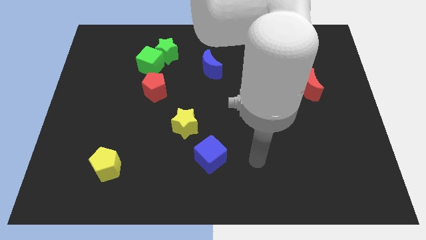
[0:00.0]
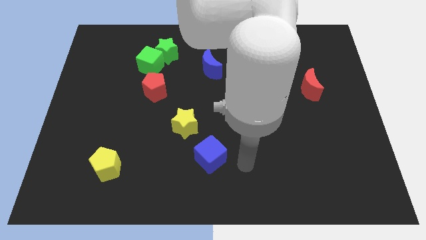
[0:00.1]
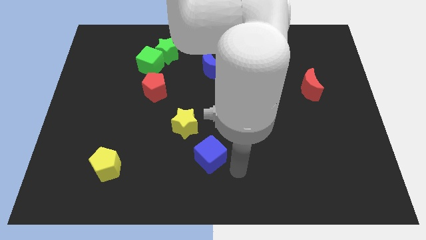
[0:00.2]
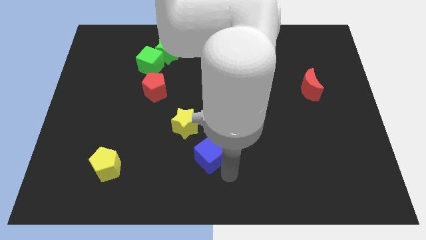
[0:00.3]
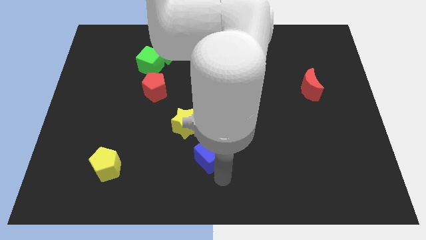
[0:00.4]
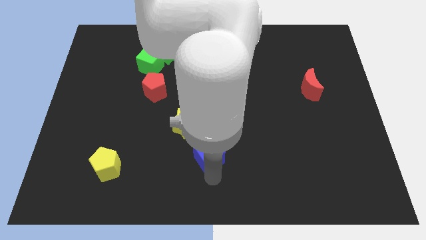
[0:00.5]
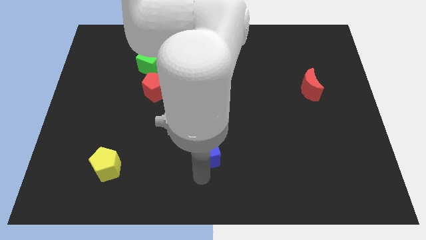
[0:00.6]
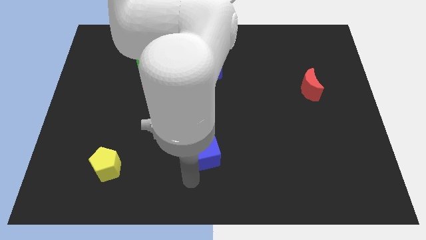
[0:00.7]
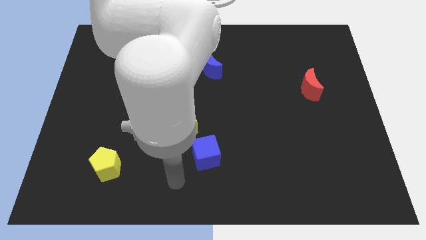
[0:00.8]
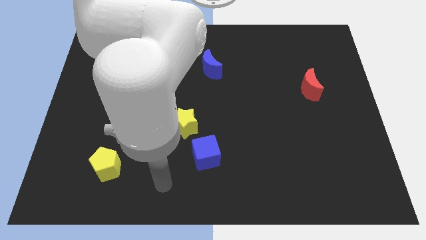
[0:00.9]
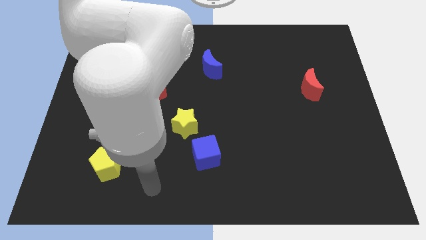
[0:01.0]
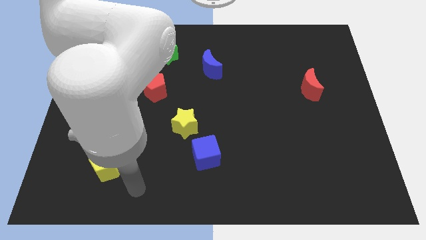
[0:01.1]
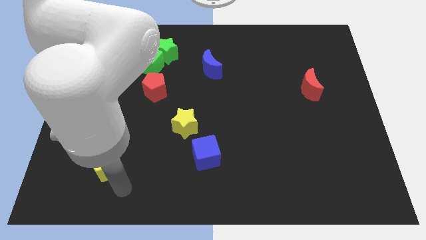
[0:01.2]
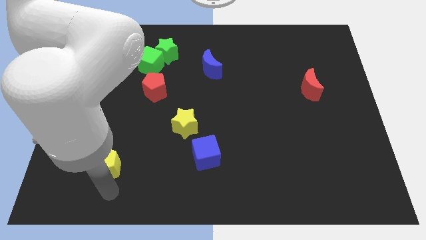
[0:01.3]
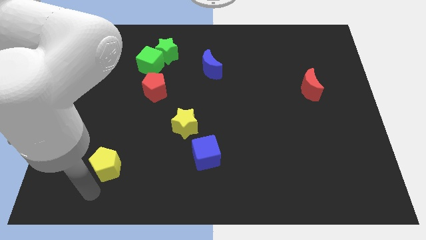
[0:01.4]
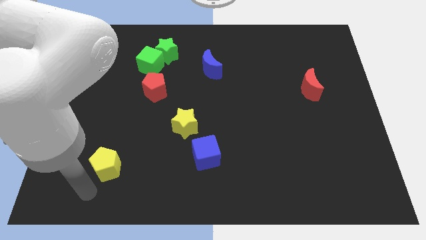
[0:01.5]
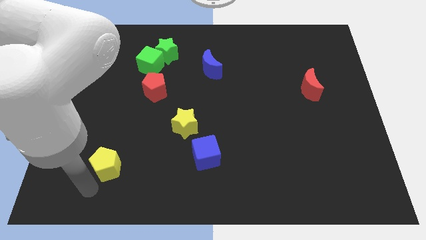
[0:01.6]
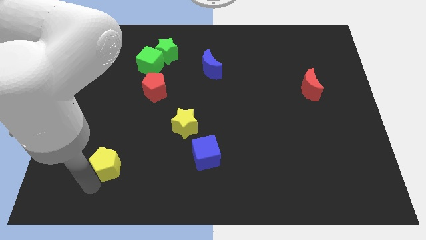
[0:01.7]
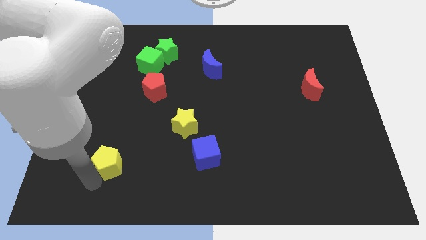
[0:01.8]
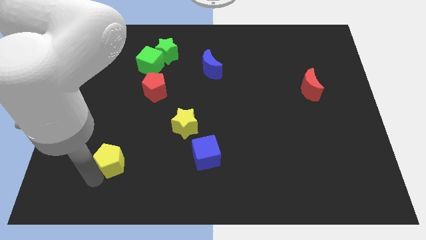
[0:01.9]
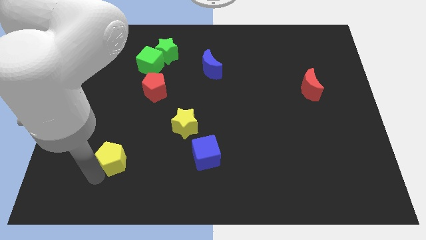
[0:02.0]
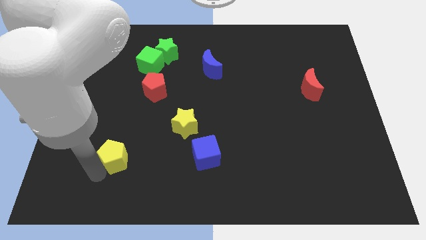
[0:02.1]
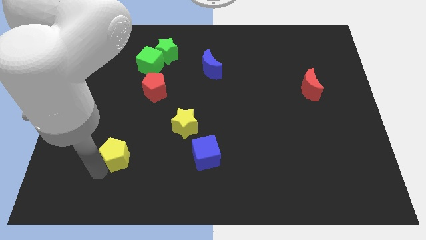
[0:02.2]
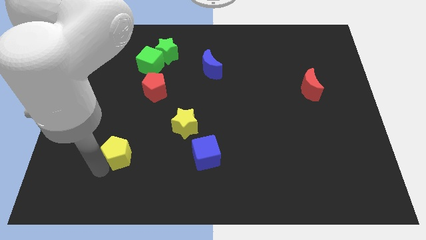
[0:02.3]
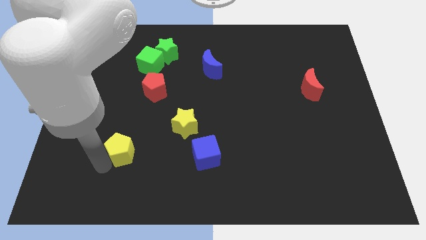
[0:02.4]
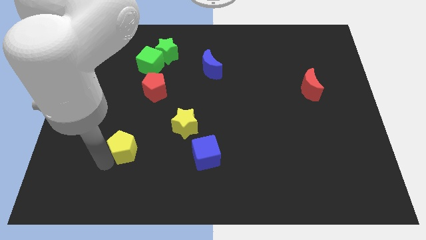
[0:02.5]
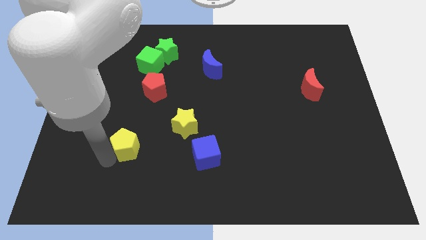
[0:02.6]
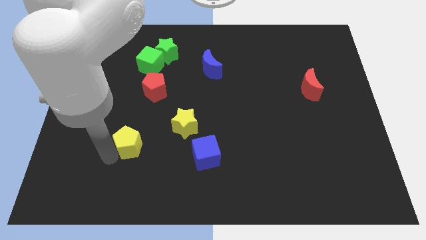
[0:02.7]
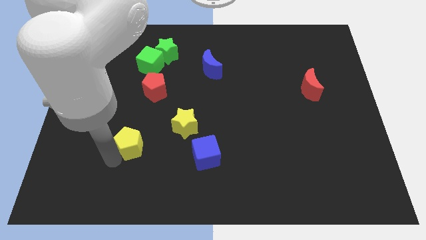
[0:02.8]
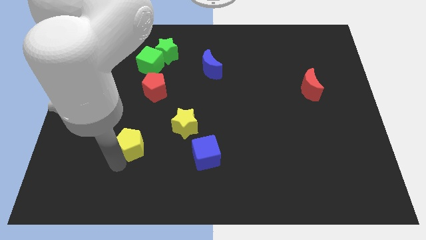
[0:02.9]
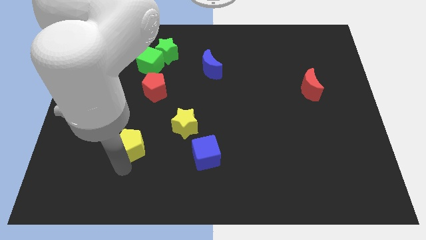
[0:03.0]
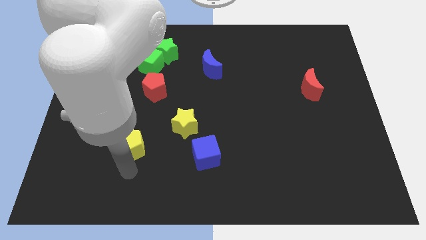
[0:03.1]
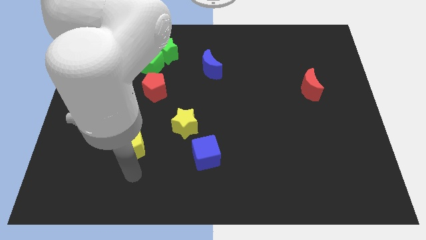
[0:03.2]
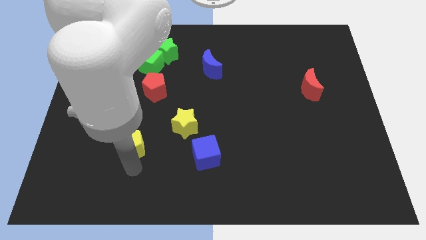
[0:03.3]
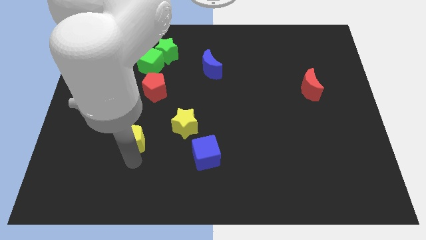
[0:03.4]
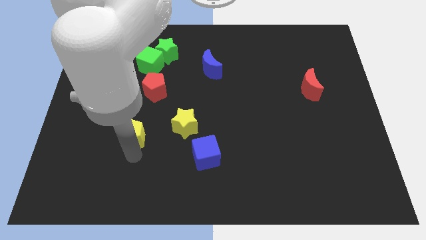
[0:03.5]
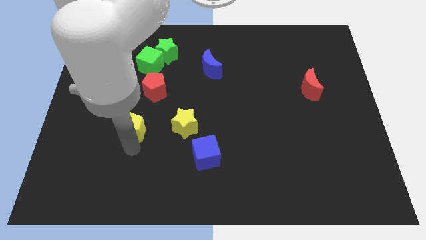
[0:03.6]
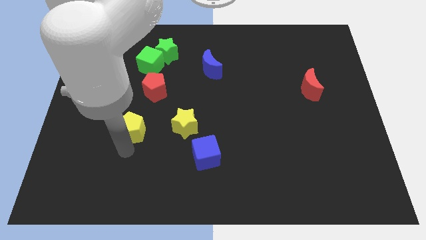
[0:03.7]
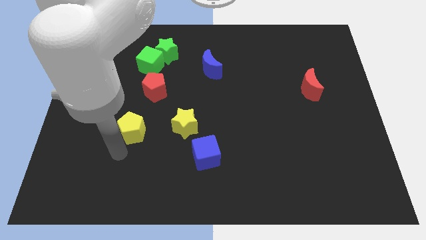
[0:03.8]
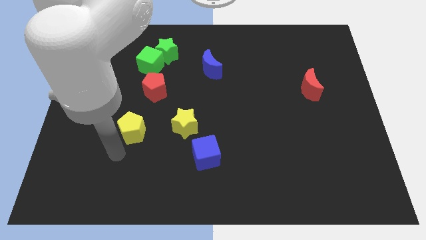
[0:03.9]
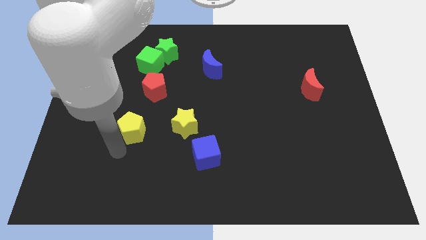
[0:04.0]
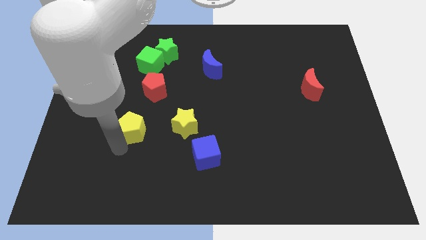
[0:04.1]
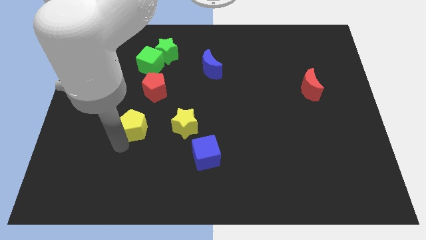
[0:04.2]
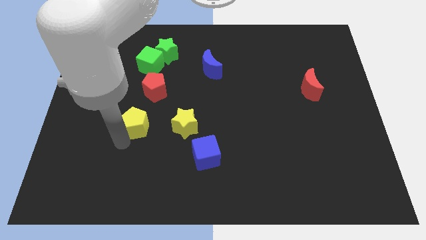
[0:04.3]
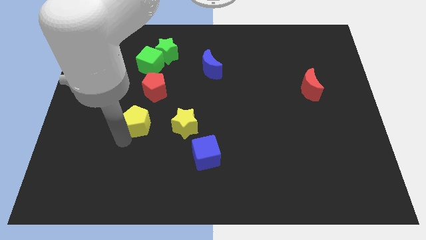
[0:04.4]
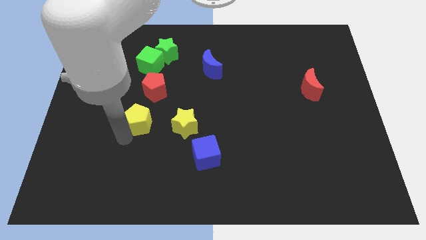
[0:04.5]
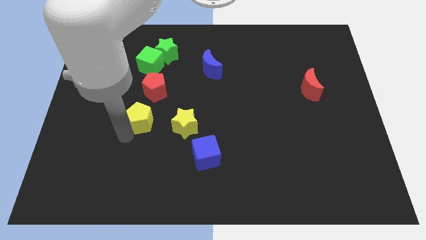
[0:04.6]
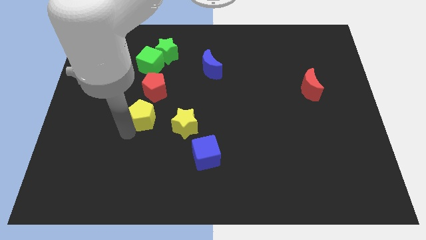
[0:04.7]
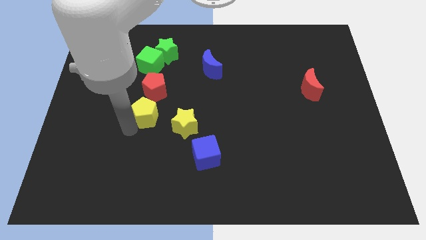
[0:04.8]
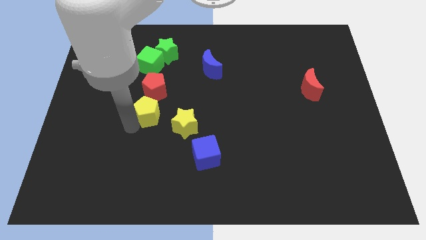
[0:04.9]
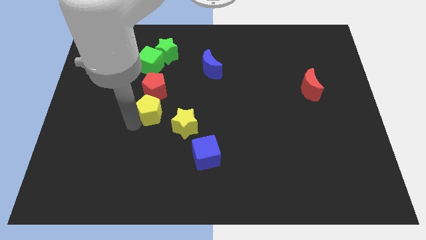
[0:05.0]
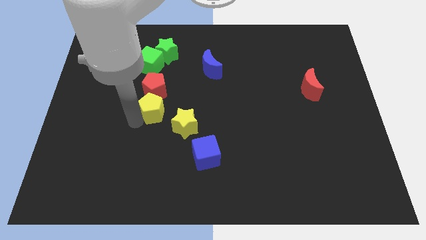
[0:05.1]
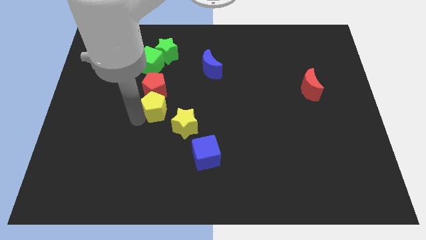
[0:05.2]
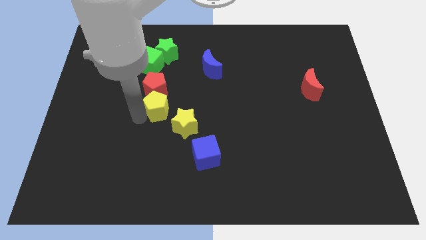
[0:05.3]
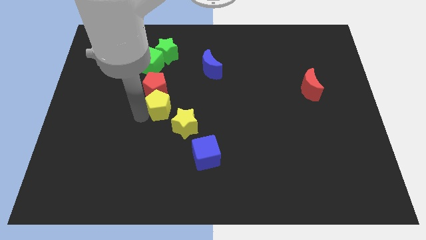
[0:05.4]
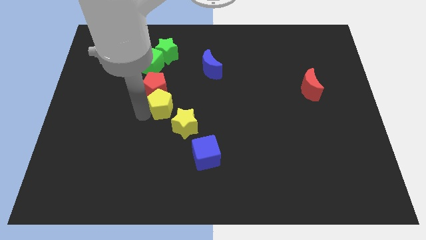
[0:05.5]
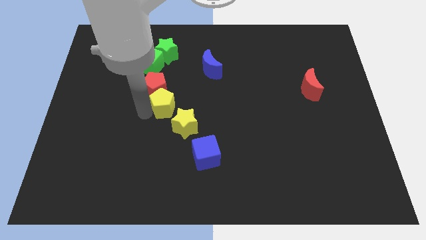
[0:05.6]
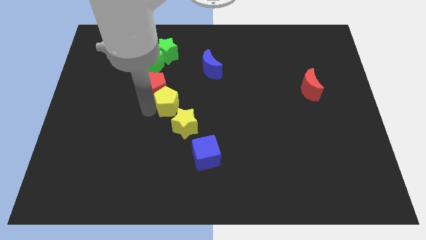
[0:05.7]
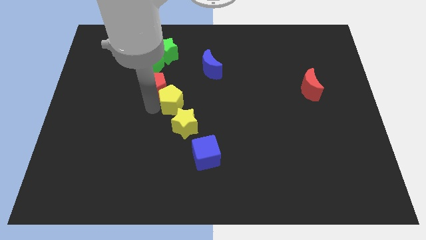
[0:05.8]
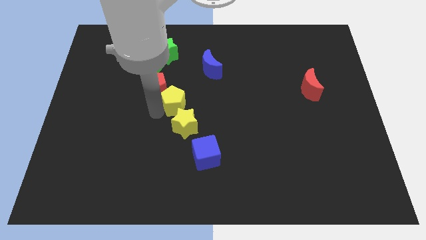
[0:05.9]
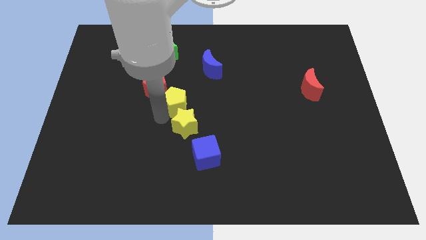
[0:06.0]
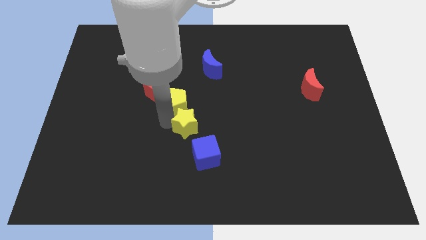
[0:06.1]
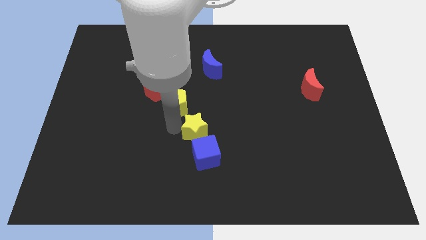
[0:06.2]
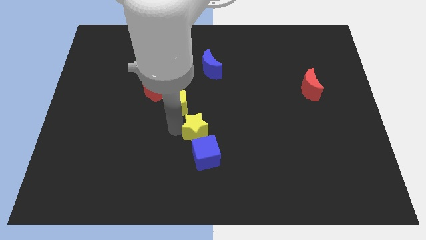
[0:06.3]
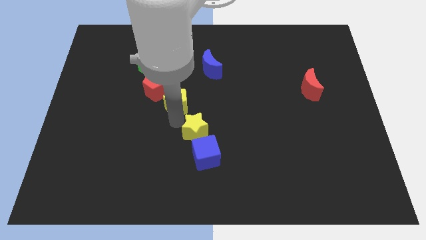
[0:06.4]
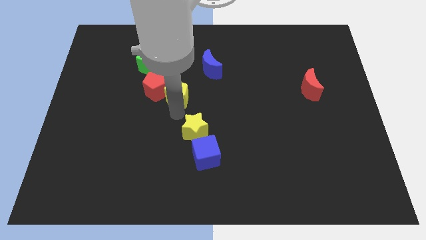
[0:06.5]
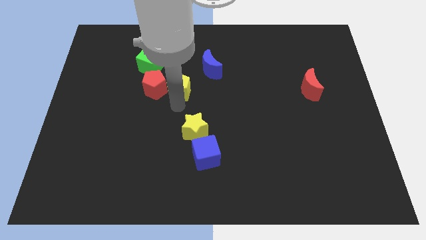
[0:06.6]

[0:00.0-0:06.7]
push the yellow pentagon to the top right of the red pentagon

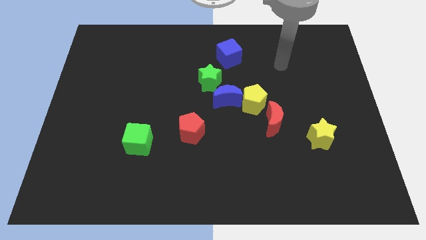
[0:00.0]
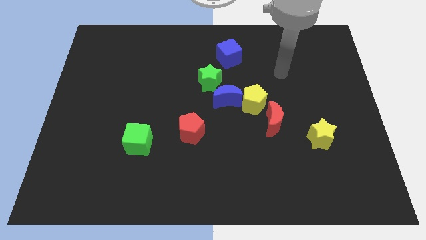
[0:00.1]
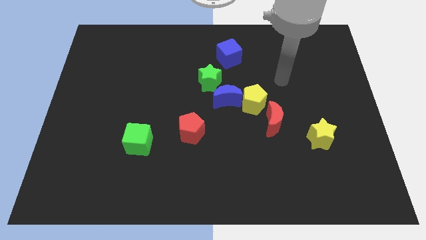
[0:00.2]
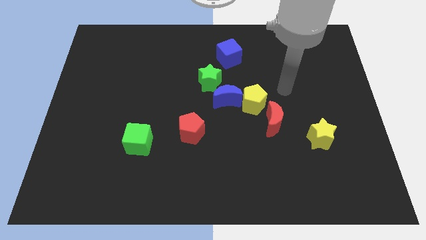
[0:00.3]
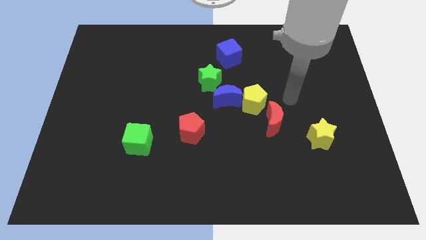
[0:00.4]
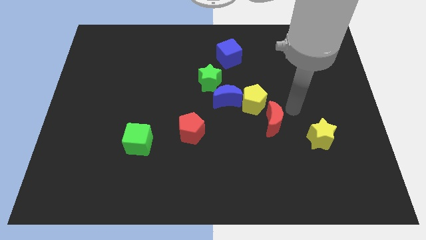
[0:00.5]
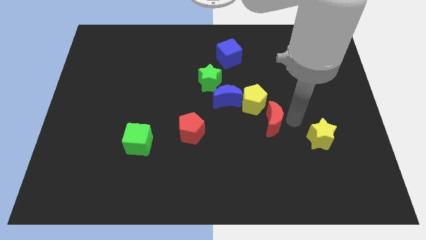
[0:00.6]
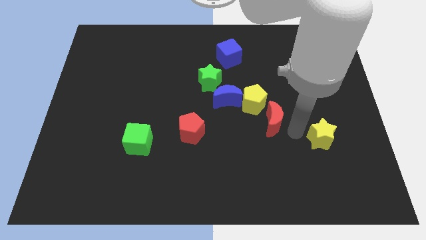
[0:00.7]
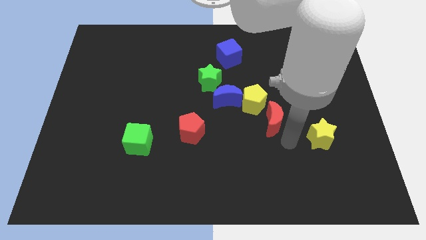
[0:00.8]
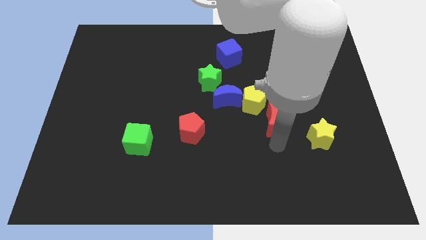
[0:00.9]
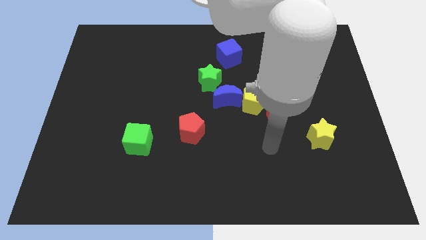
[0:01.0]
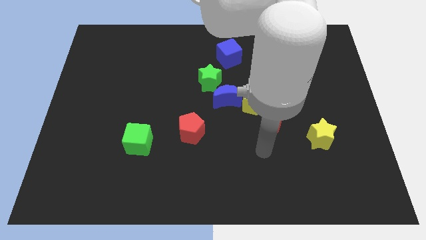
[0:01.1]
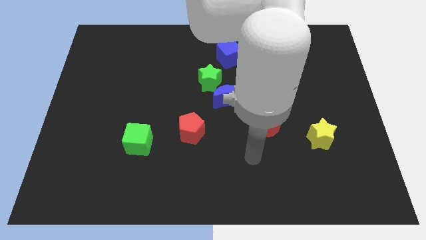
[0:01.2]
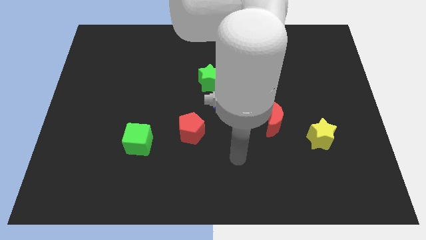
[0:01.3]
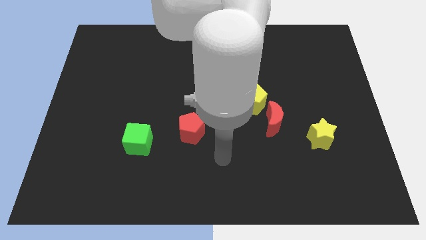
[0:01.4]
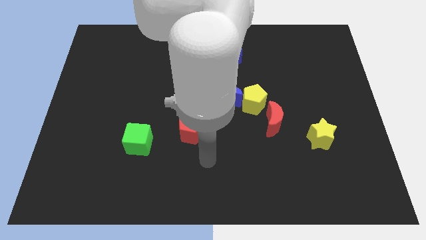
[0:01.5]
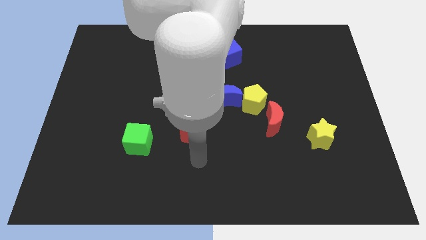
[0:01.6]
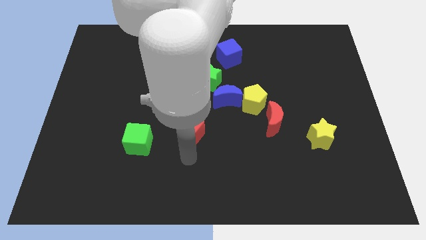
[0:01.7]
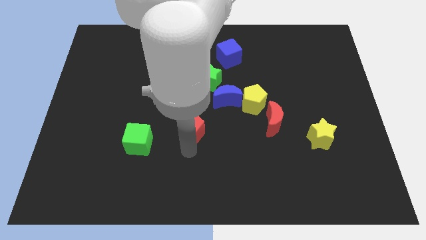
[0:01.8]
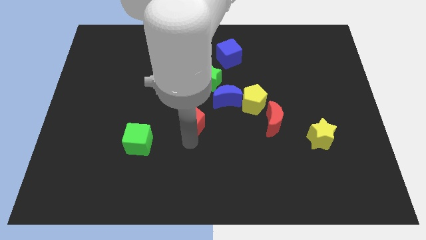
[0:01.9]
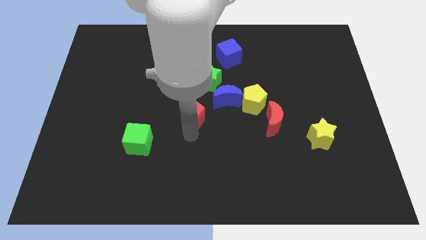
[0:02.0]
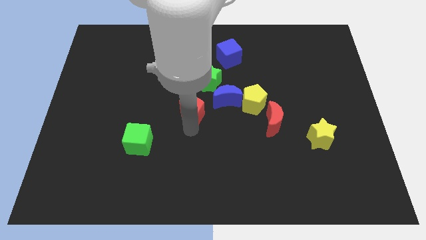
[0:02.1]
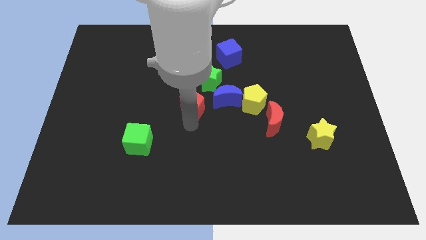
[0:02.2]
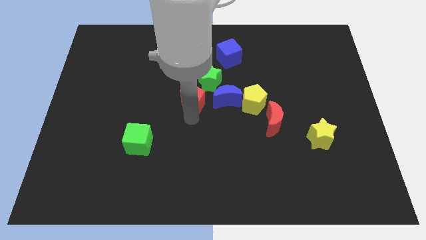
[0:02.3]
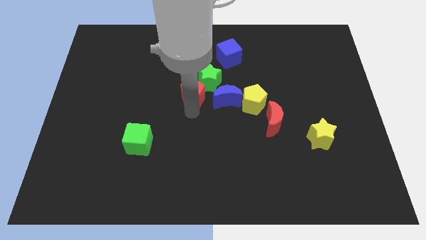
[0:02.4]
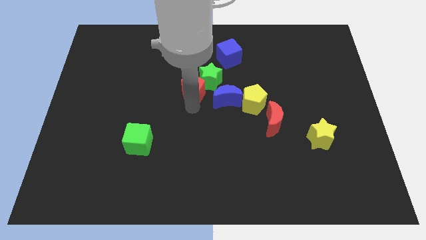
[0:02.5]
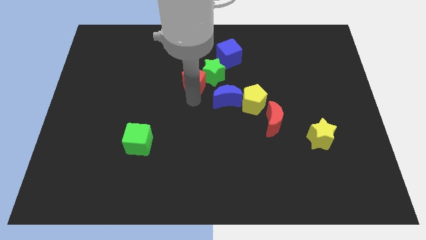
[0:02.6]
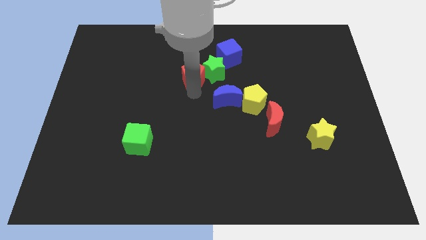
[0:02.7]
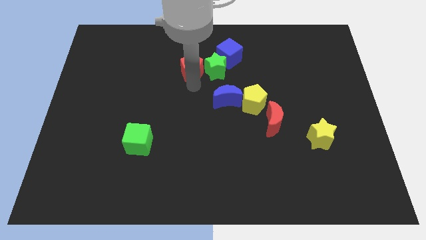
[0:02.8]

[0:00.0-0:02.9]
slide the red pentagon diagonally up and to the left of the green star
